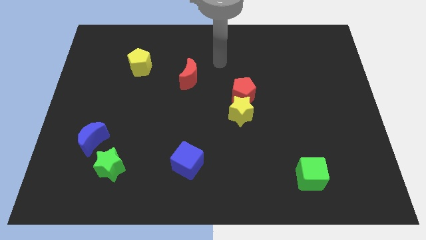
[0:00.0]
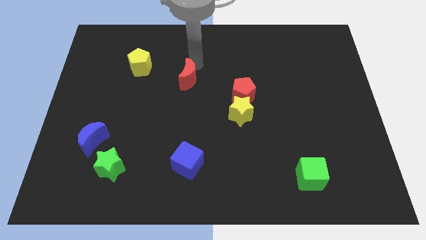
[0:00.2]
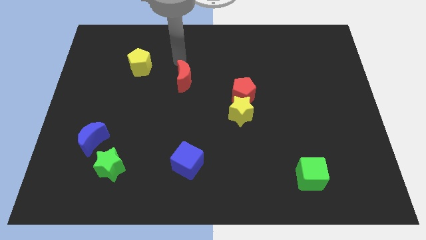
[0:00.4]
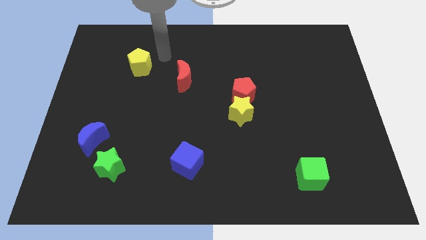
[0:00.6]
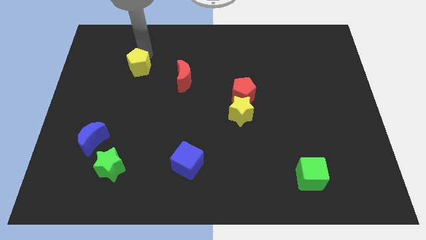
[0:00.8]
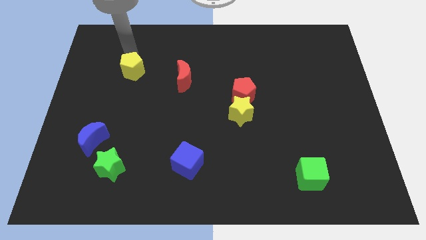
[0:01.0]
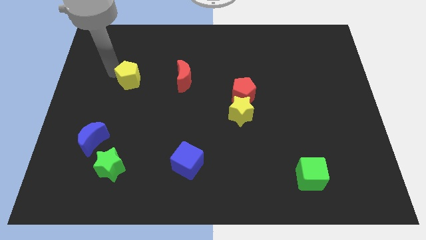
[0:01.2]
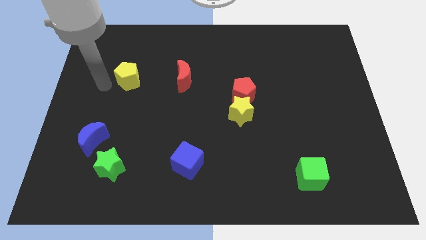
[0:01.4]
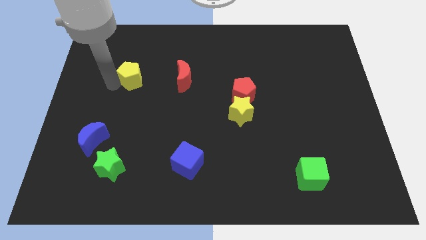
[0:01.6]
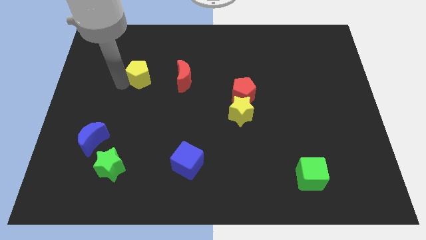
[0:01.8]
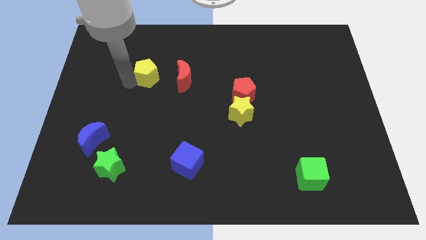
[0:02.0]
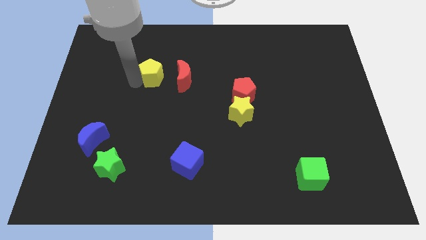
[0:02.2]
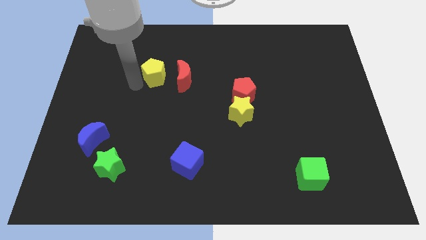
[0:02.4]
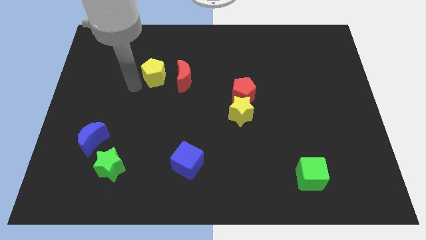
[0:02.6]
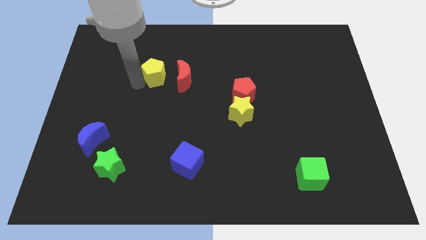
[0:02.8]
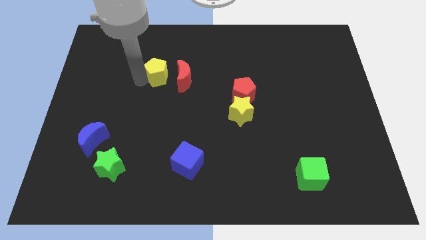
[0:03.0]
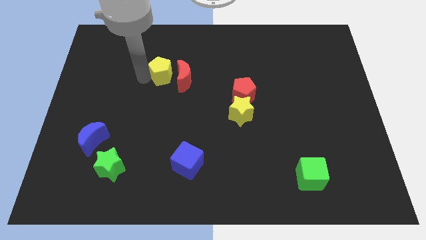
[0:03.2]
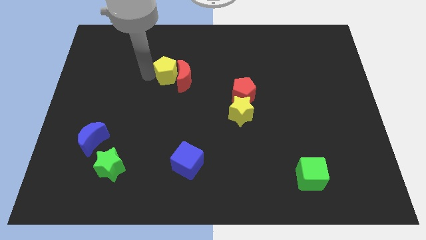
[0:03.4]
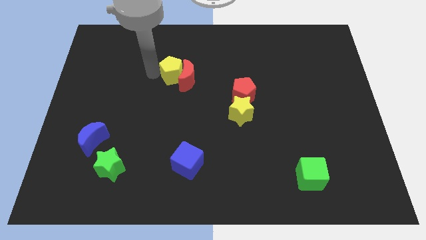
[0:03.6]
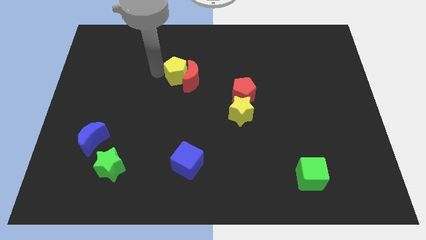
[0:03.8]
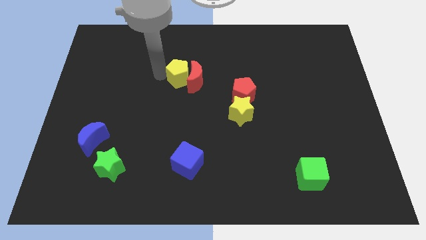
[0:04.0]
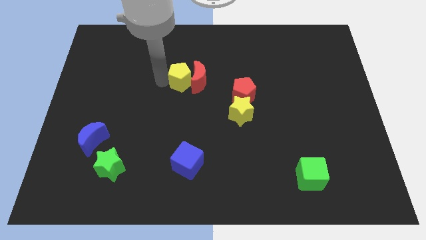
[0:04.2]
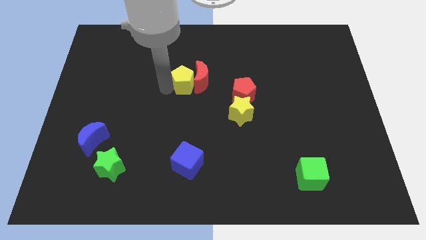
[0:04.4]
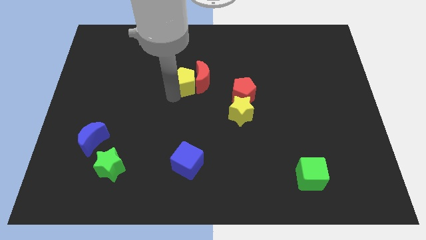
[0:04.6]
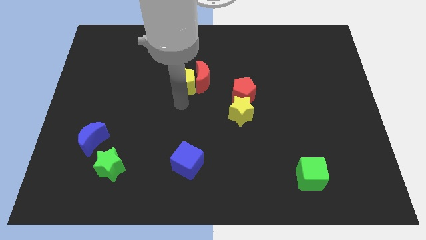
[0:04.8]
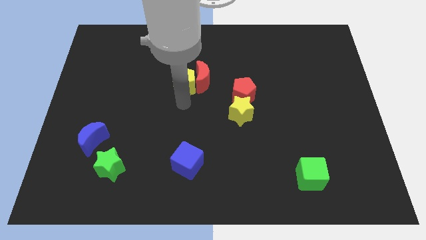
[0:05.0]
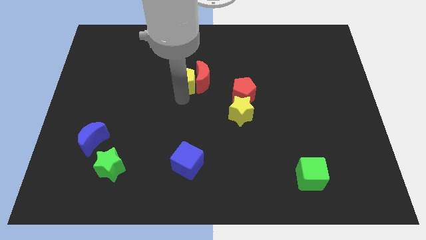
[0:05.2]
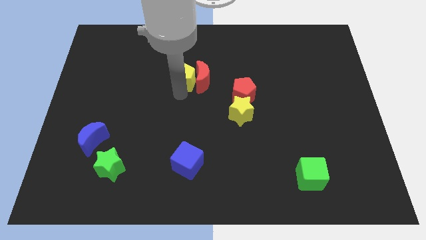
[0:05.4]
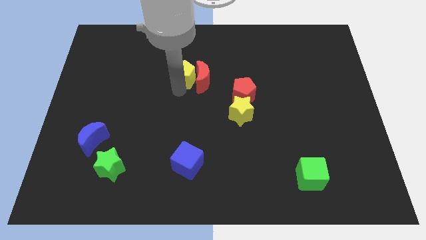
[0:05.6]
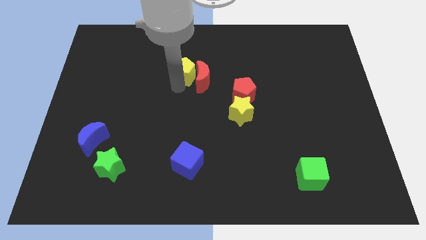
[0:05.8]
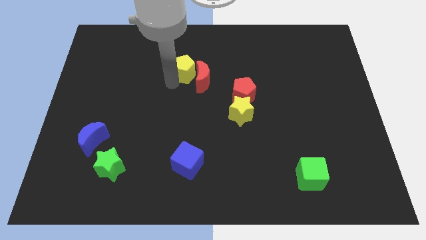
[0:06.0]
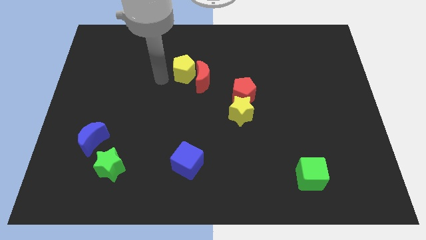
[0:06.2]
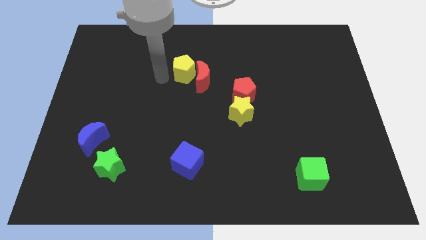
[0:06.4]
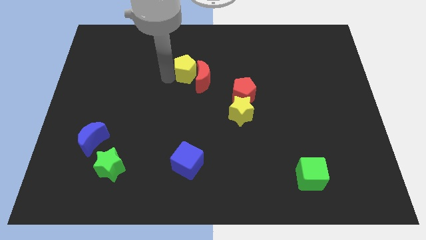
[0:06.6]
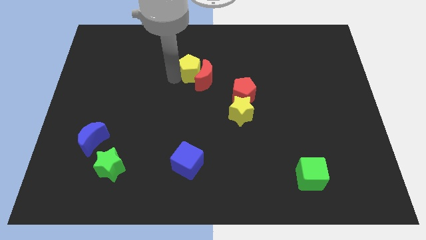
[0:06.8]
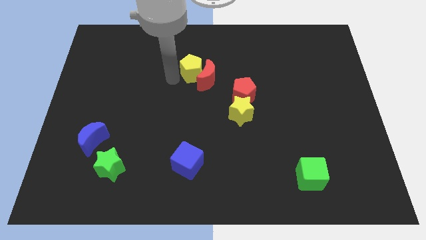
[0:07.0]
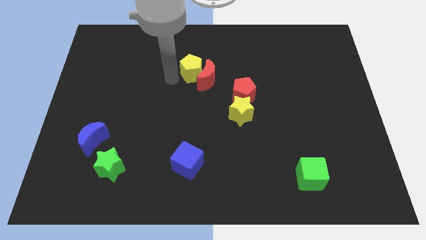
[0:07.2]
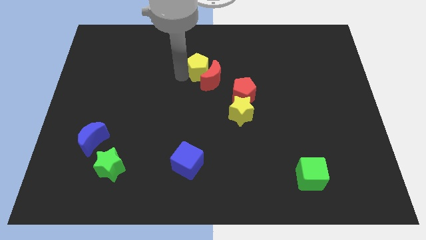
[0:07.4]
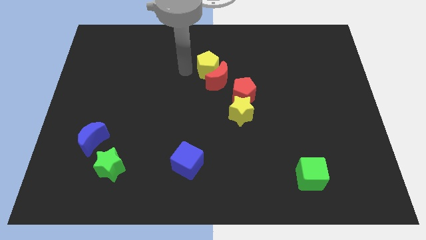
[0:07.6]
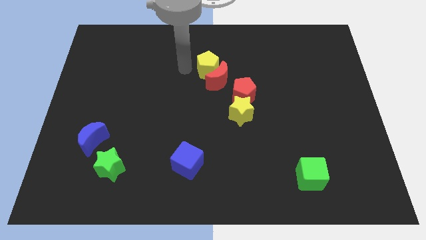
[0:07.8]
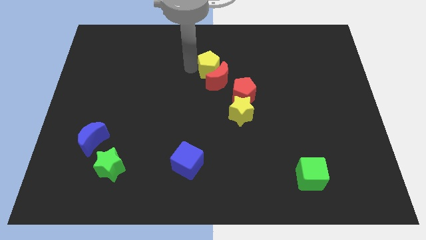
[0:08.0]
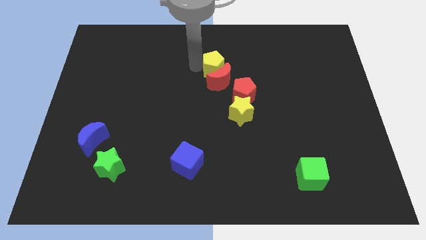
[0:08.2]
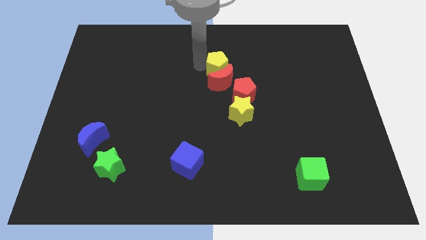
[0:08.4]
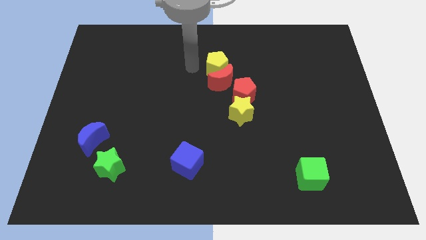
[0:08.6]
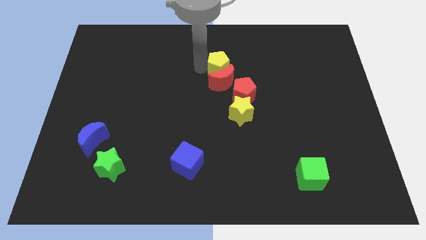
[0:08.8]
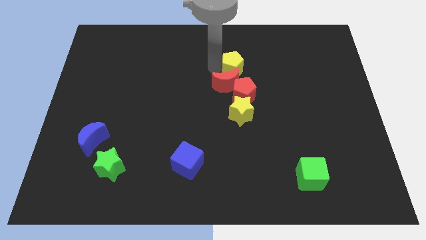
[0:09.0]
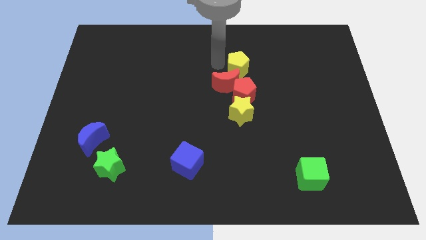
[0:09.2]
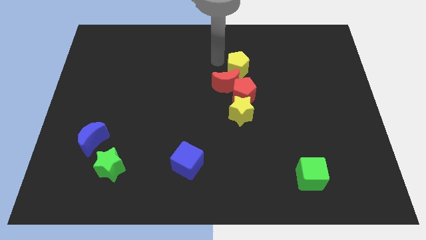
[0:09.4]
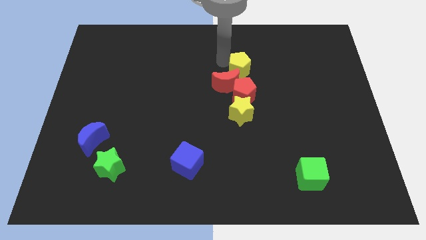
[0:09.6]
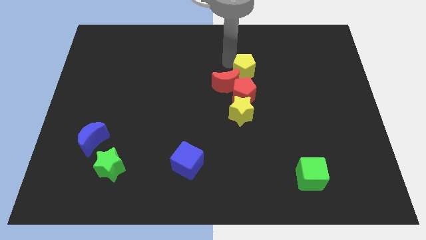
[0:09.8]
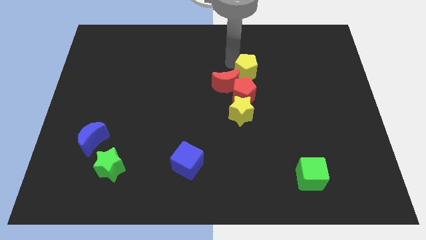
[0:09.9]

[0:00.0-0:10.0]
push the yellow pentagon to the top right of the red pentagon

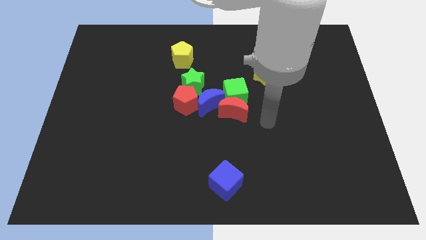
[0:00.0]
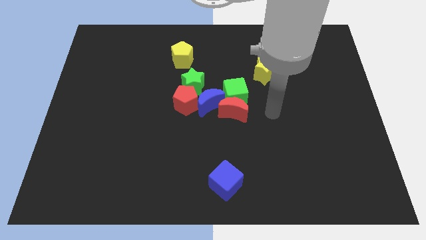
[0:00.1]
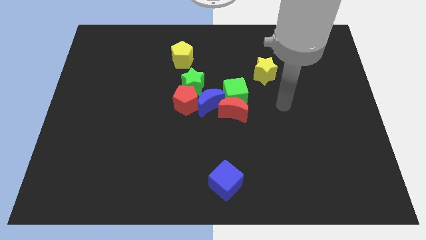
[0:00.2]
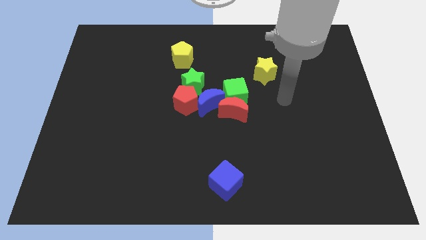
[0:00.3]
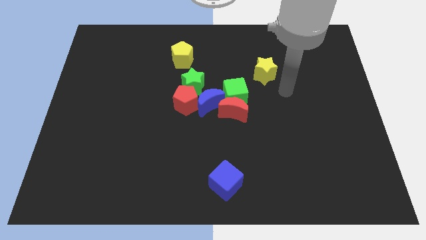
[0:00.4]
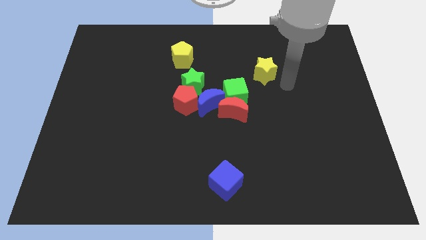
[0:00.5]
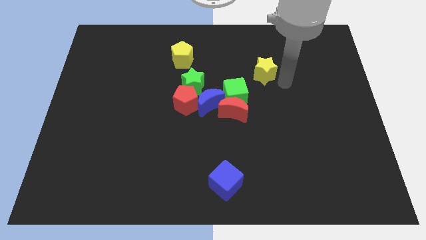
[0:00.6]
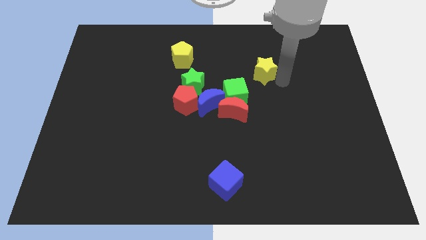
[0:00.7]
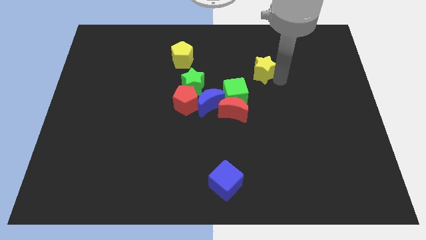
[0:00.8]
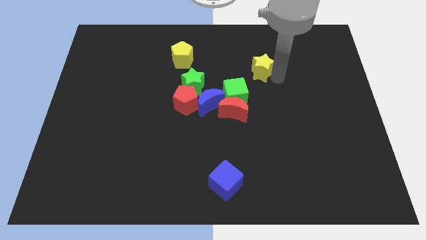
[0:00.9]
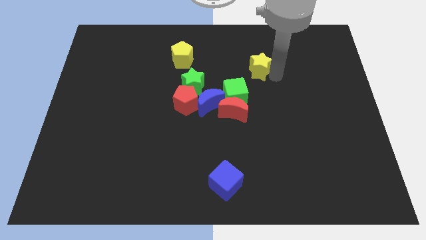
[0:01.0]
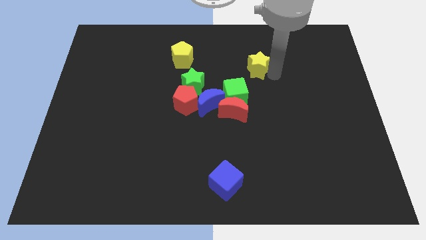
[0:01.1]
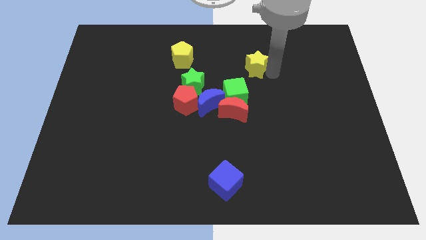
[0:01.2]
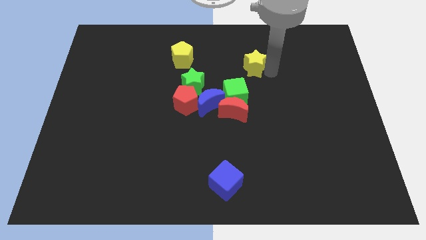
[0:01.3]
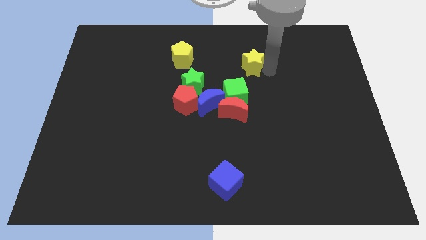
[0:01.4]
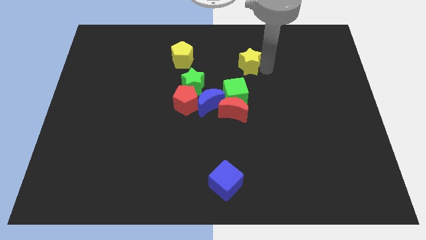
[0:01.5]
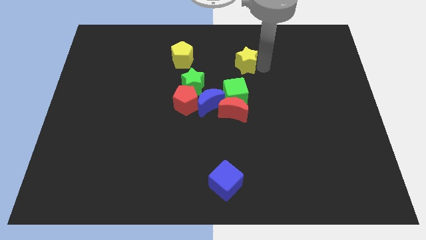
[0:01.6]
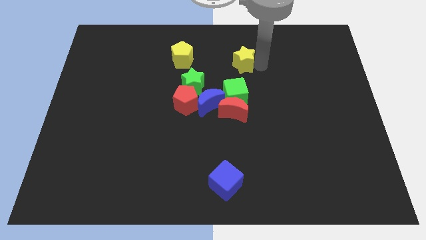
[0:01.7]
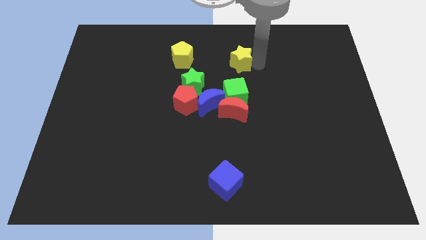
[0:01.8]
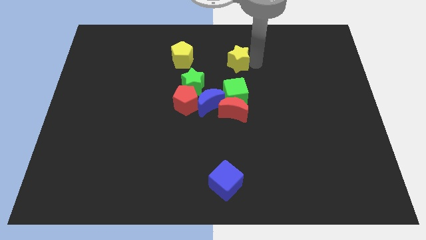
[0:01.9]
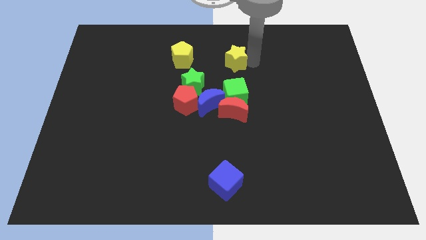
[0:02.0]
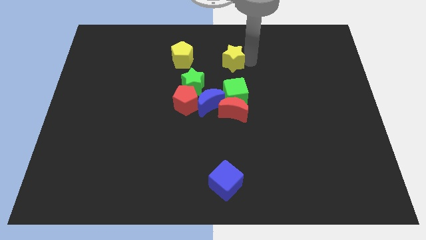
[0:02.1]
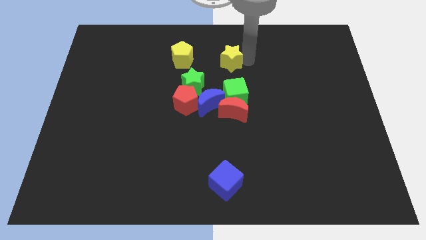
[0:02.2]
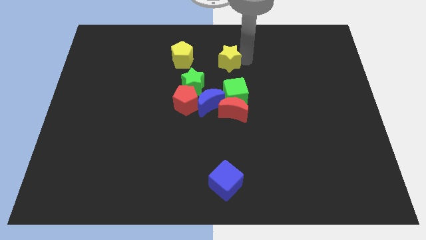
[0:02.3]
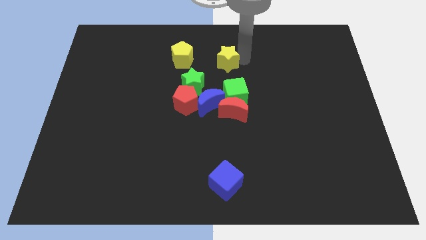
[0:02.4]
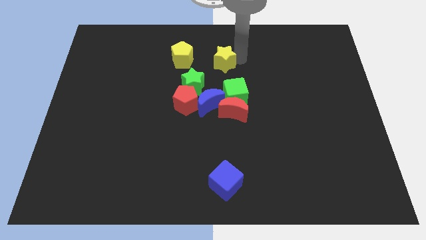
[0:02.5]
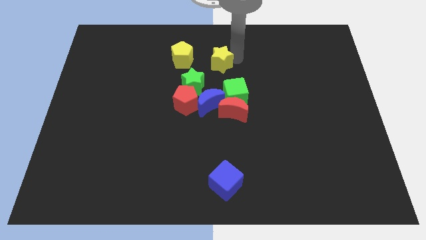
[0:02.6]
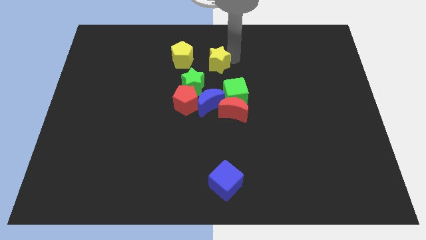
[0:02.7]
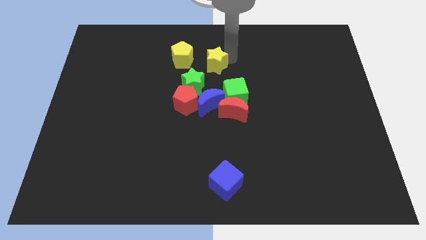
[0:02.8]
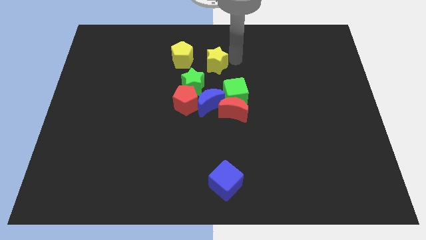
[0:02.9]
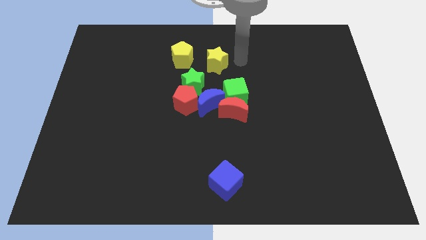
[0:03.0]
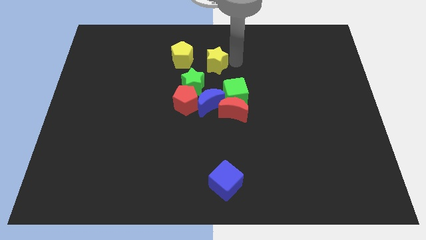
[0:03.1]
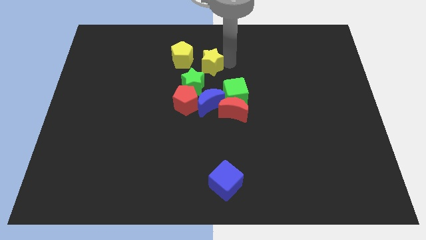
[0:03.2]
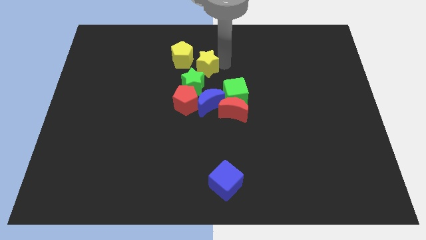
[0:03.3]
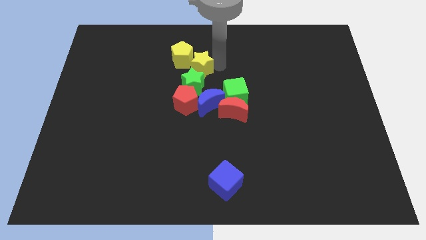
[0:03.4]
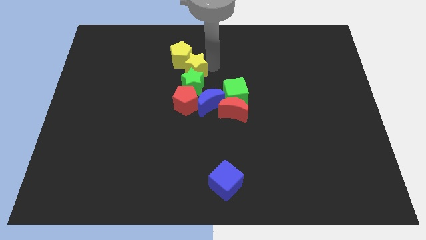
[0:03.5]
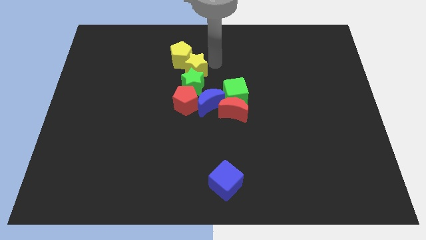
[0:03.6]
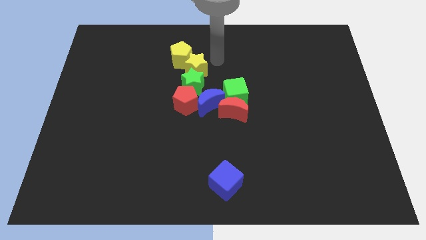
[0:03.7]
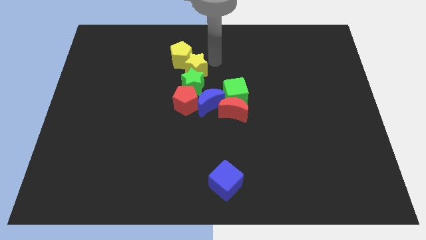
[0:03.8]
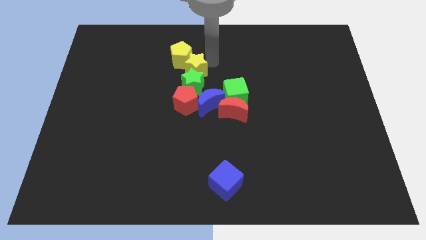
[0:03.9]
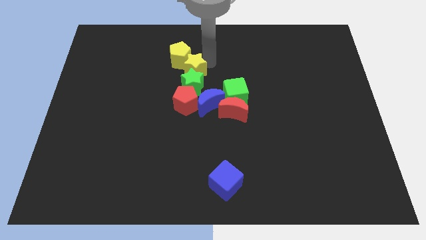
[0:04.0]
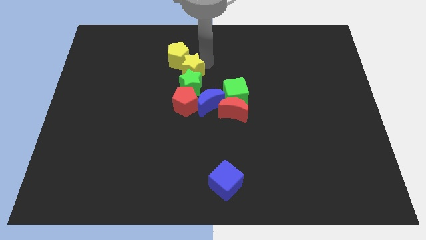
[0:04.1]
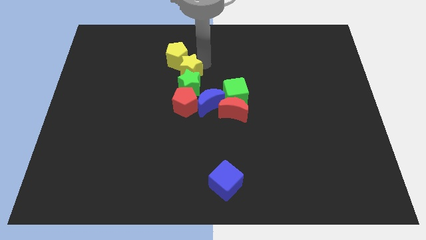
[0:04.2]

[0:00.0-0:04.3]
push the yellow star to the top left of the blue moon
